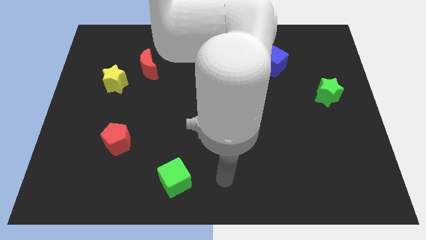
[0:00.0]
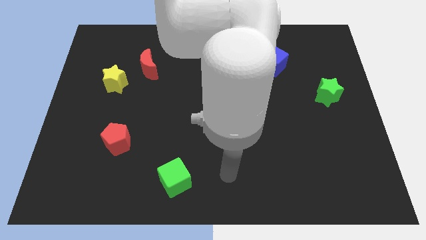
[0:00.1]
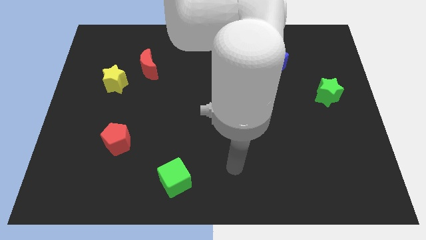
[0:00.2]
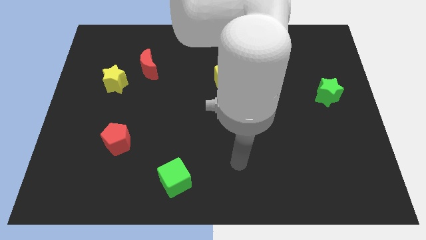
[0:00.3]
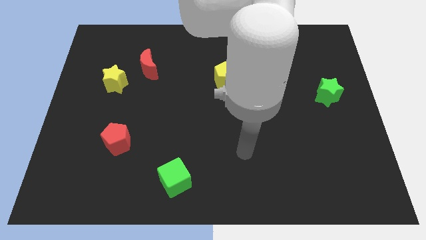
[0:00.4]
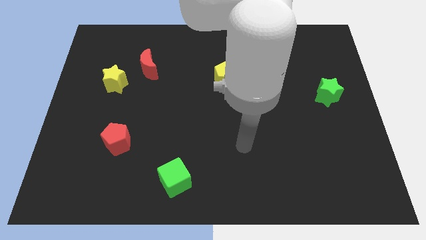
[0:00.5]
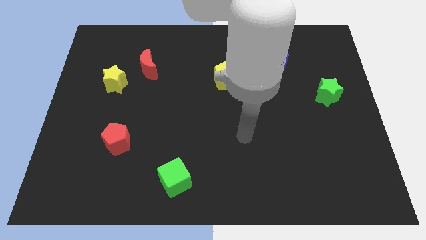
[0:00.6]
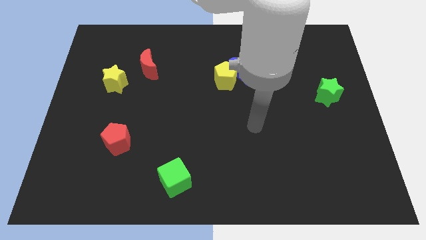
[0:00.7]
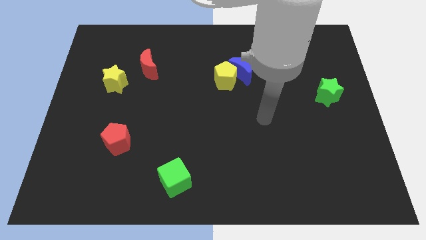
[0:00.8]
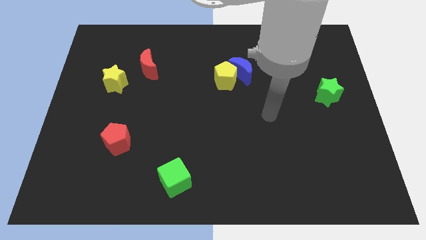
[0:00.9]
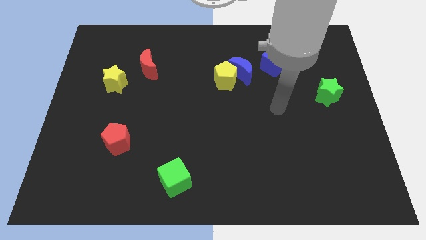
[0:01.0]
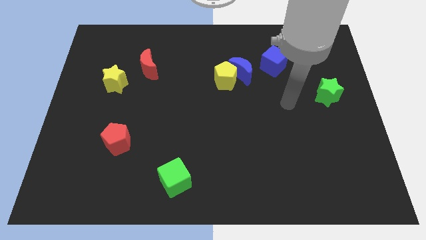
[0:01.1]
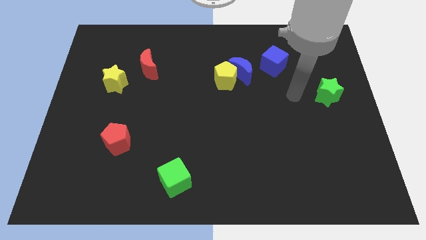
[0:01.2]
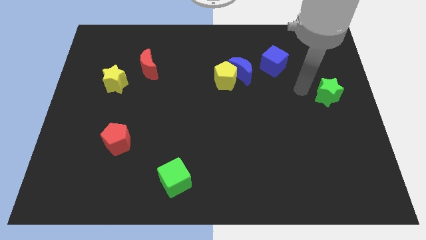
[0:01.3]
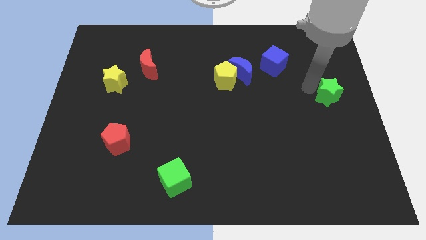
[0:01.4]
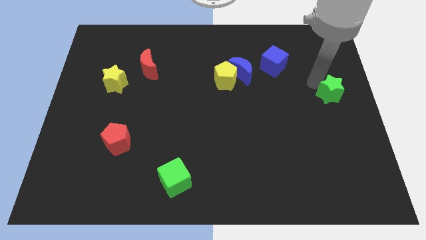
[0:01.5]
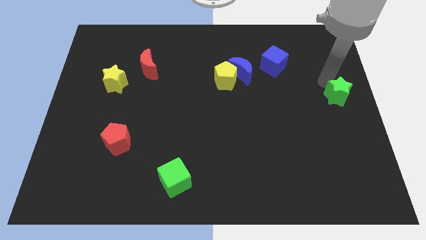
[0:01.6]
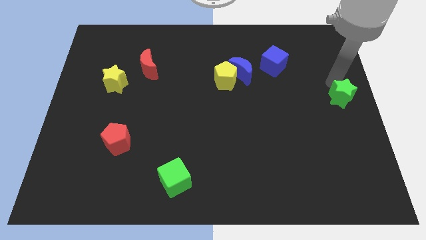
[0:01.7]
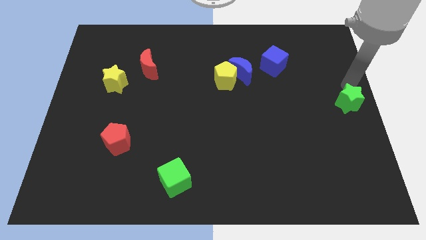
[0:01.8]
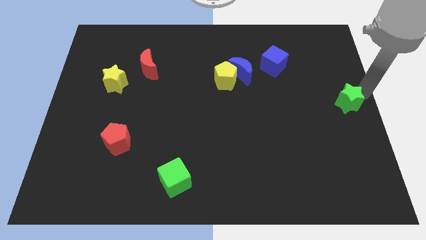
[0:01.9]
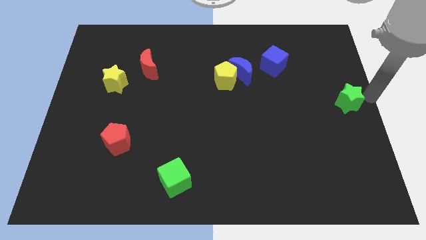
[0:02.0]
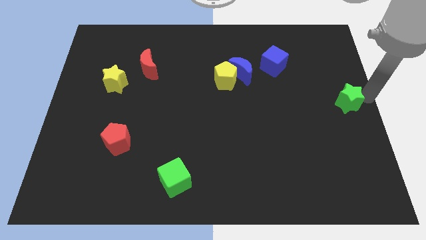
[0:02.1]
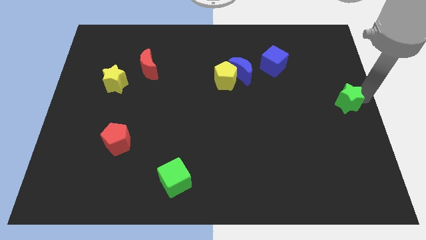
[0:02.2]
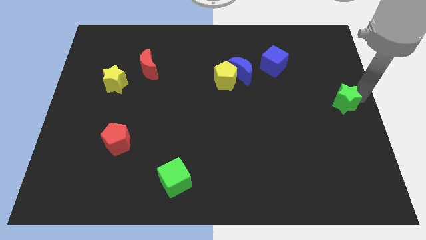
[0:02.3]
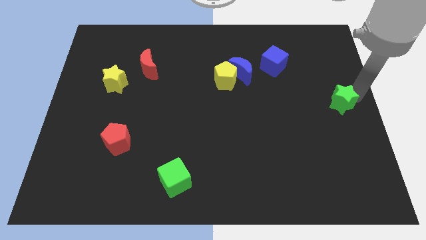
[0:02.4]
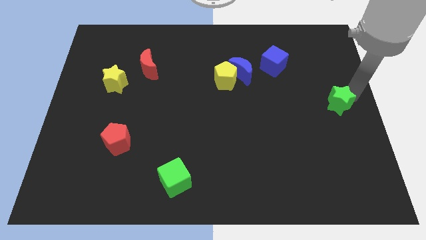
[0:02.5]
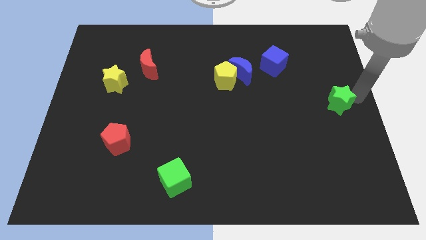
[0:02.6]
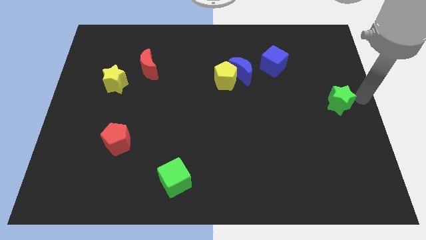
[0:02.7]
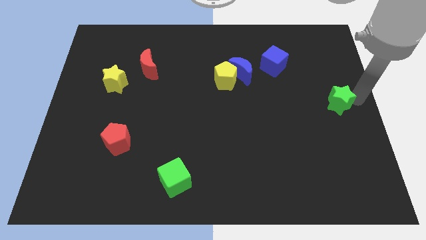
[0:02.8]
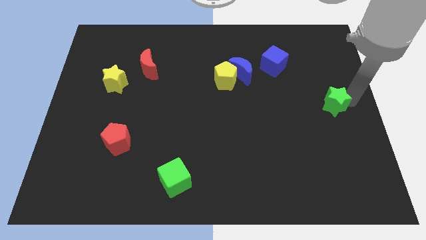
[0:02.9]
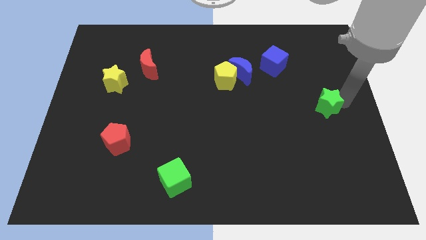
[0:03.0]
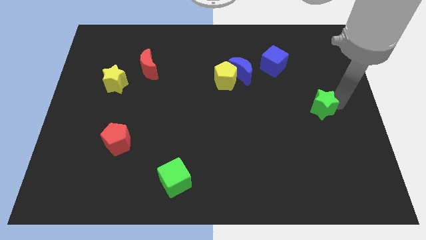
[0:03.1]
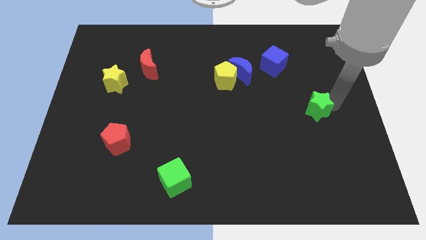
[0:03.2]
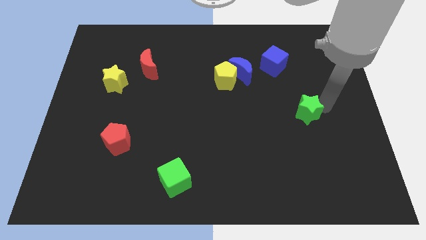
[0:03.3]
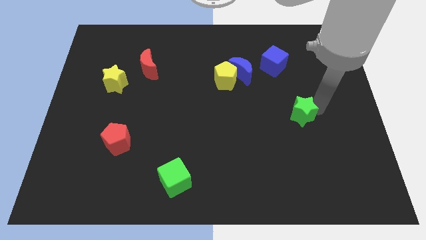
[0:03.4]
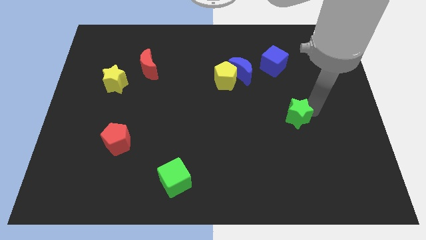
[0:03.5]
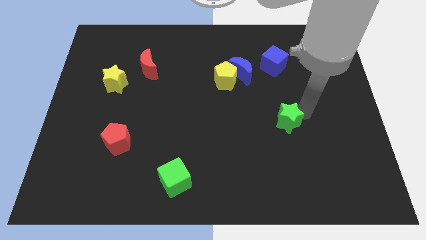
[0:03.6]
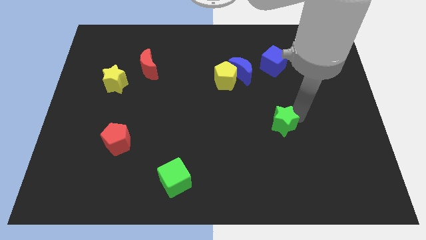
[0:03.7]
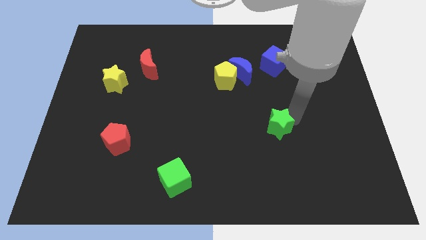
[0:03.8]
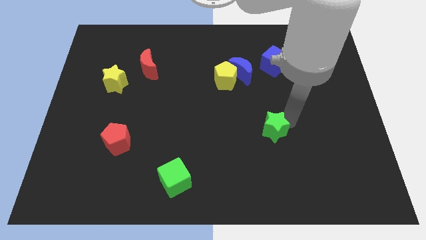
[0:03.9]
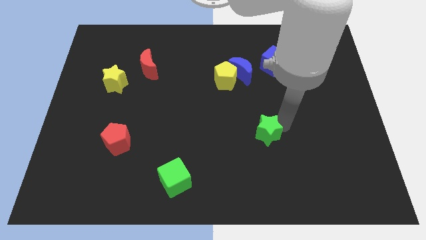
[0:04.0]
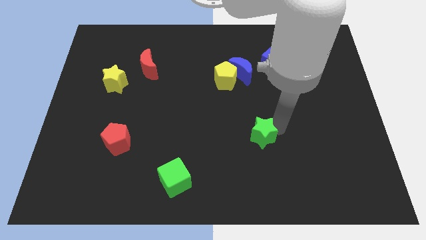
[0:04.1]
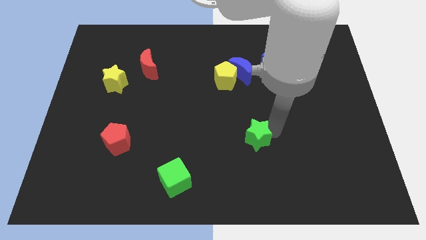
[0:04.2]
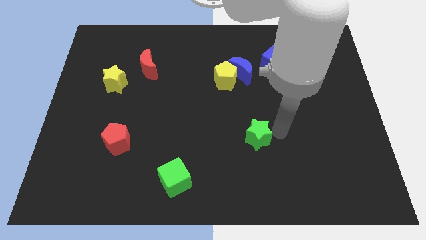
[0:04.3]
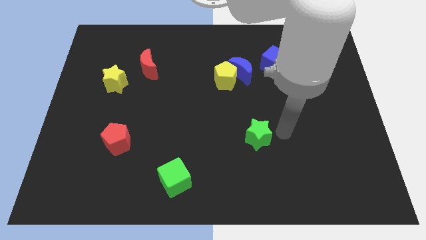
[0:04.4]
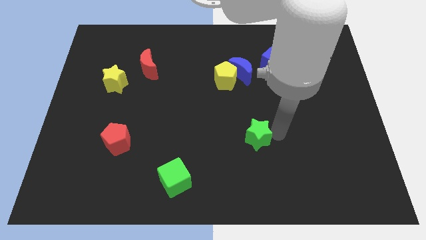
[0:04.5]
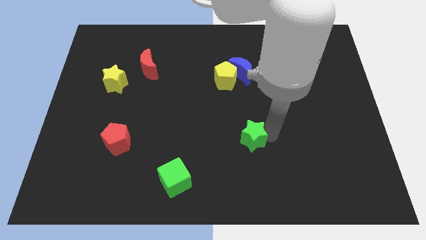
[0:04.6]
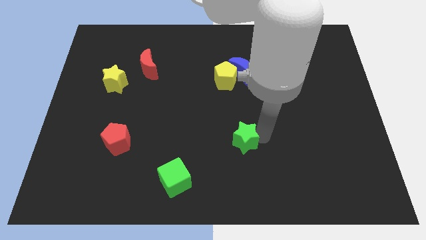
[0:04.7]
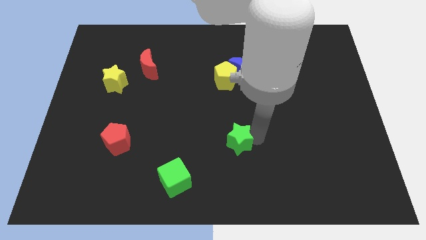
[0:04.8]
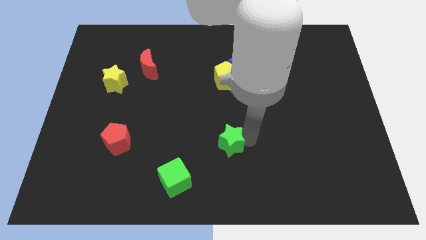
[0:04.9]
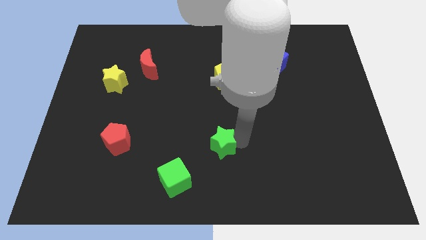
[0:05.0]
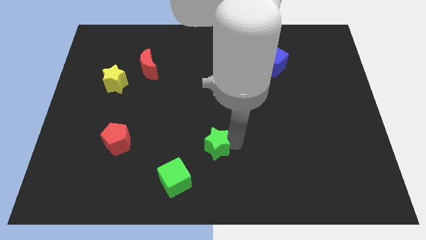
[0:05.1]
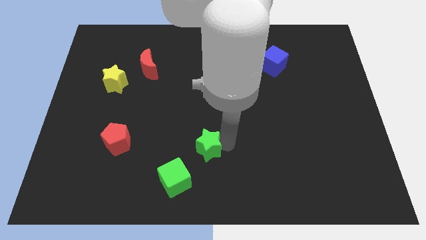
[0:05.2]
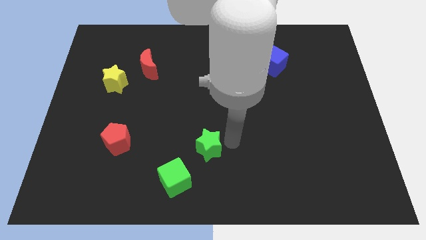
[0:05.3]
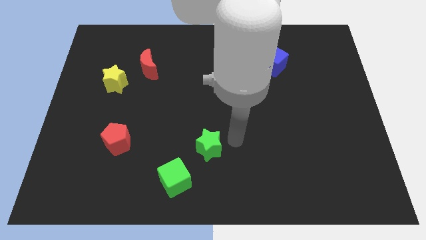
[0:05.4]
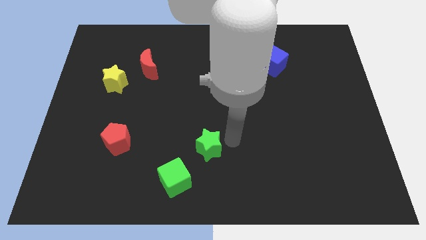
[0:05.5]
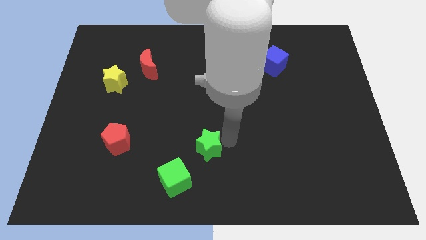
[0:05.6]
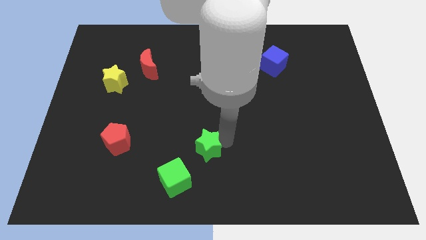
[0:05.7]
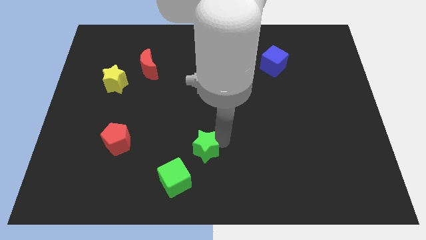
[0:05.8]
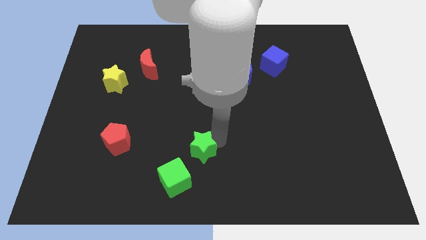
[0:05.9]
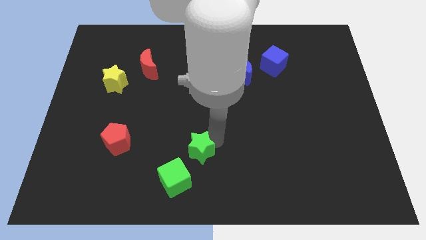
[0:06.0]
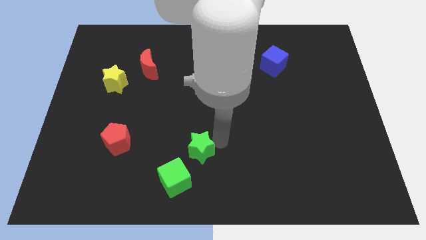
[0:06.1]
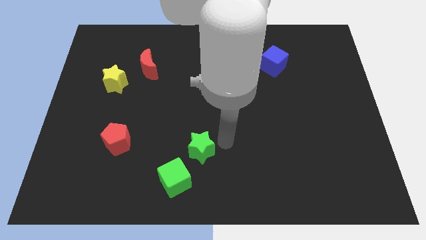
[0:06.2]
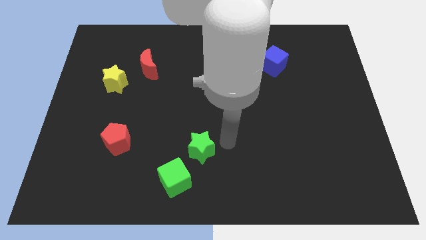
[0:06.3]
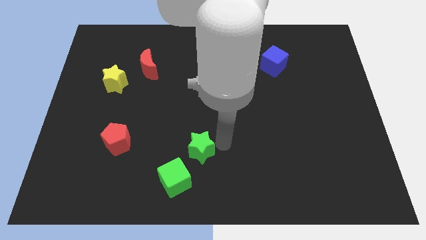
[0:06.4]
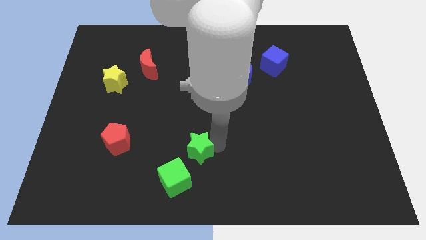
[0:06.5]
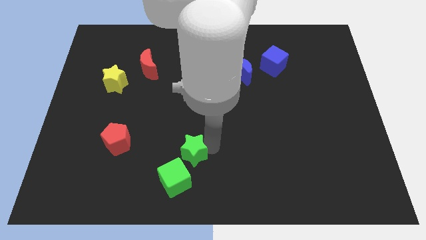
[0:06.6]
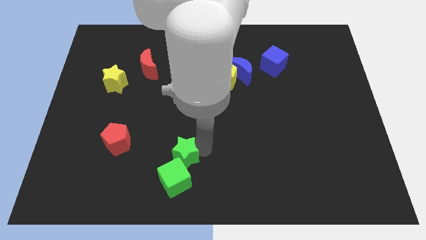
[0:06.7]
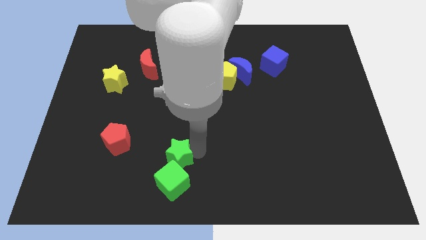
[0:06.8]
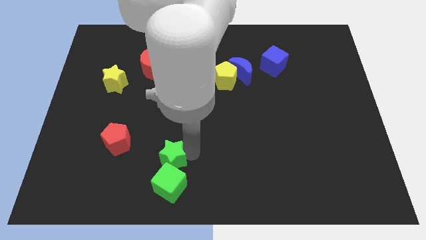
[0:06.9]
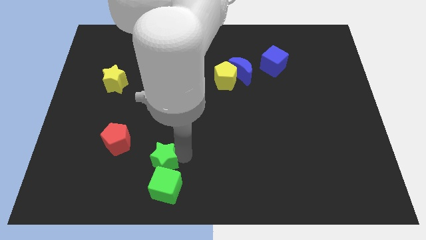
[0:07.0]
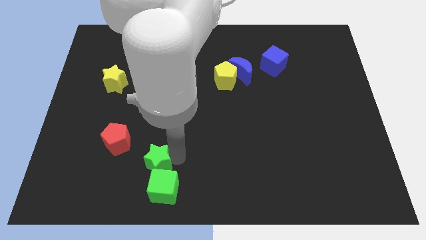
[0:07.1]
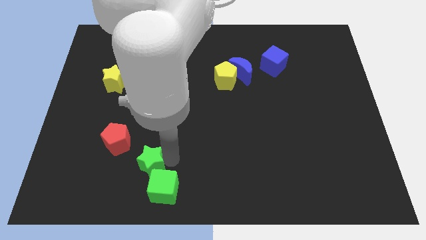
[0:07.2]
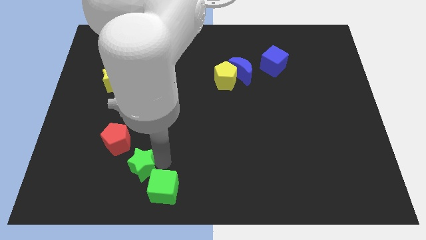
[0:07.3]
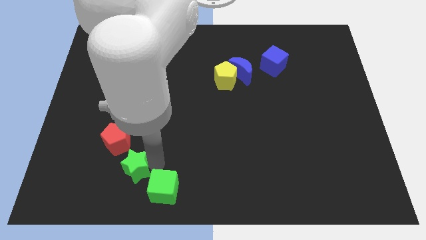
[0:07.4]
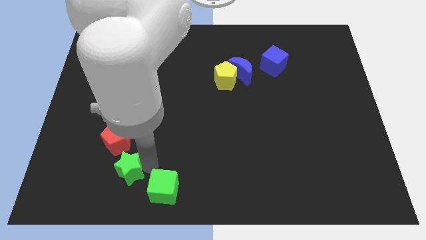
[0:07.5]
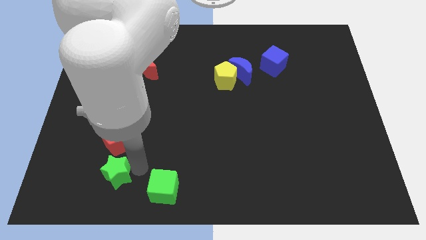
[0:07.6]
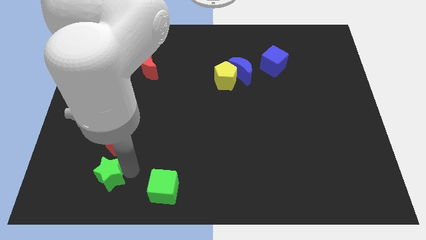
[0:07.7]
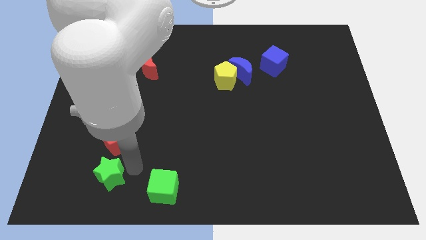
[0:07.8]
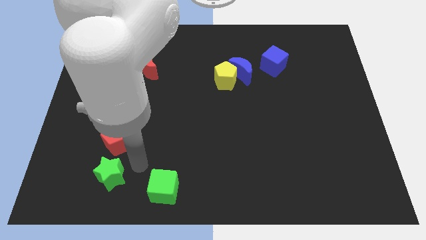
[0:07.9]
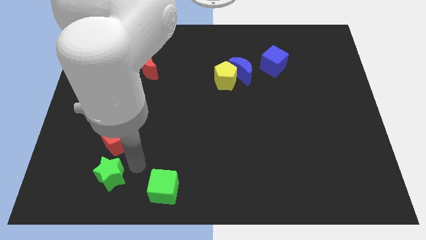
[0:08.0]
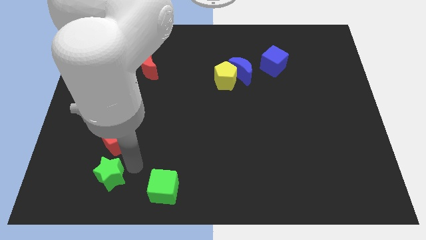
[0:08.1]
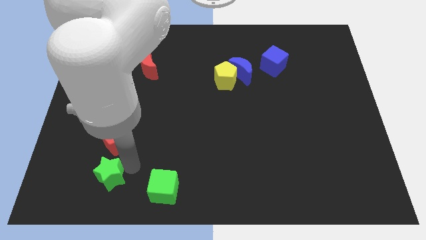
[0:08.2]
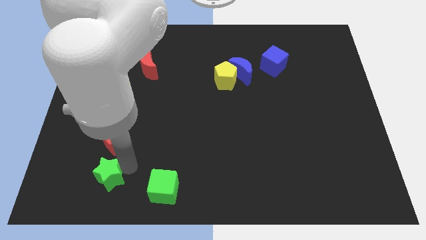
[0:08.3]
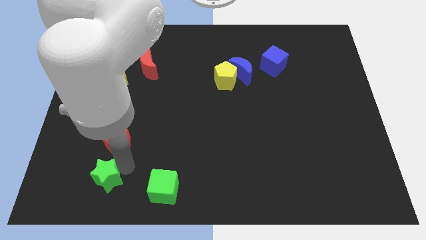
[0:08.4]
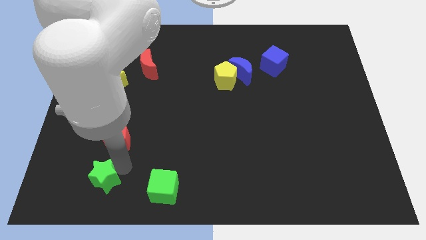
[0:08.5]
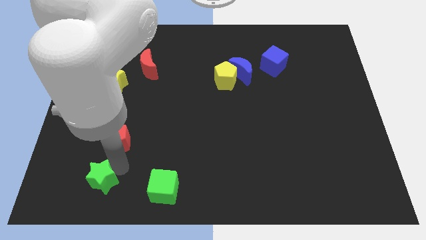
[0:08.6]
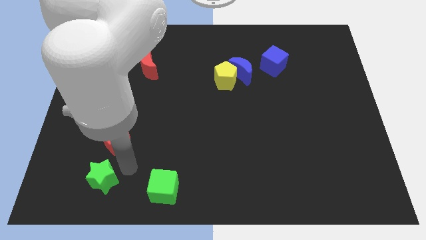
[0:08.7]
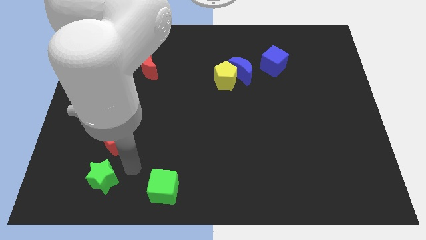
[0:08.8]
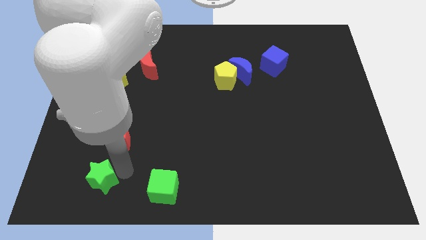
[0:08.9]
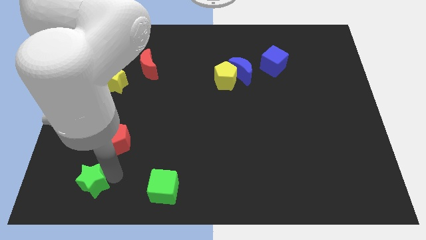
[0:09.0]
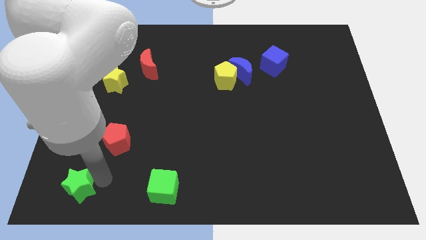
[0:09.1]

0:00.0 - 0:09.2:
push the green star to the bottom left corner
